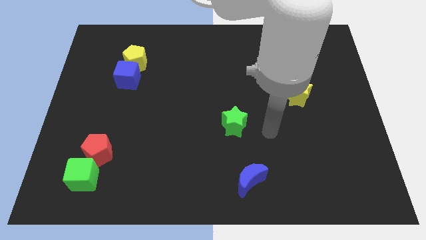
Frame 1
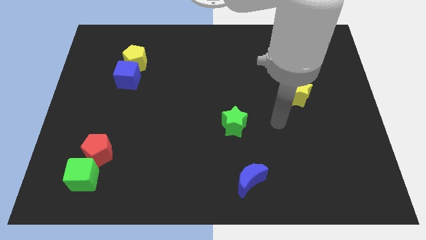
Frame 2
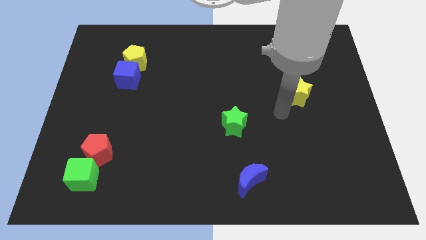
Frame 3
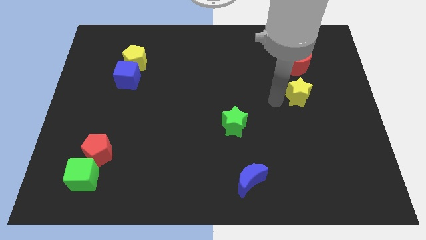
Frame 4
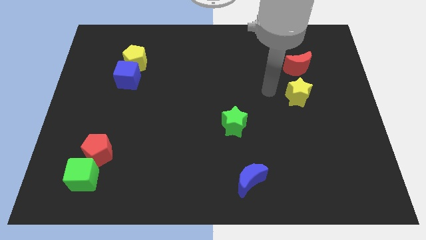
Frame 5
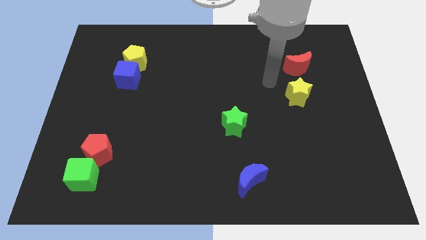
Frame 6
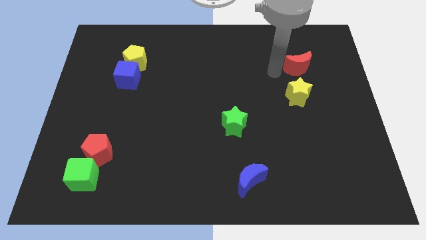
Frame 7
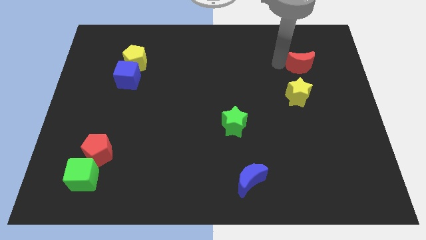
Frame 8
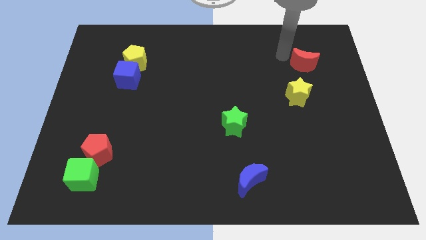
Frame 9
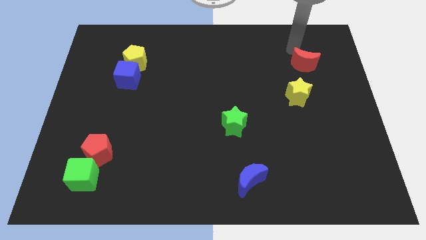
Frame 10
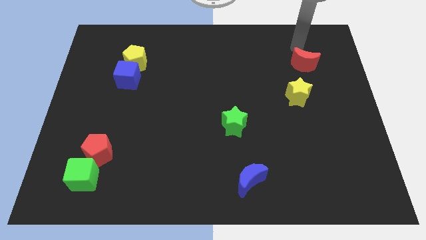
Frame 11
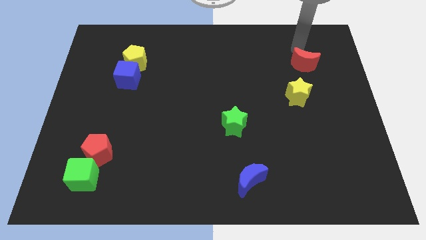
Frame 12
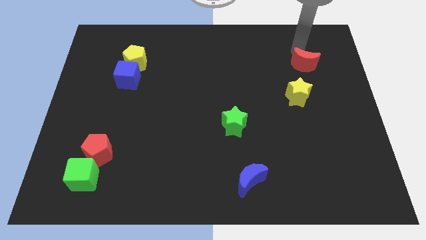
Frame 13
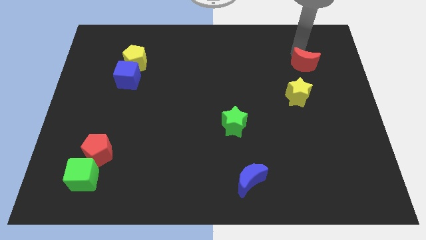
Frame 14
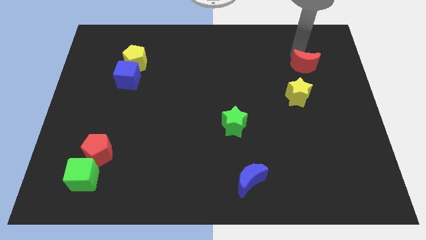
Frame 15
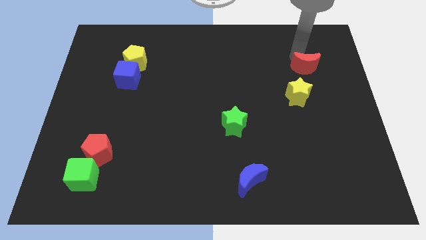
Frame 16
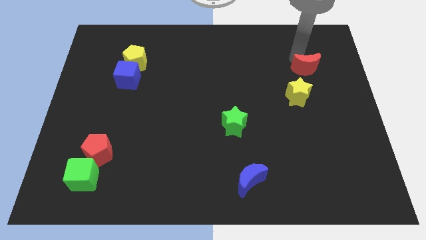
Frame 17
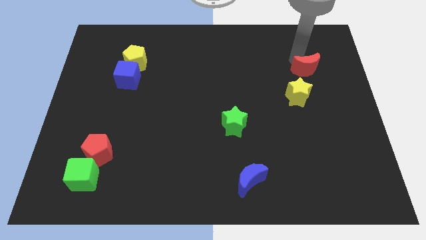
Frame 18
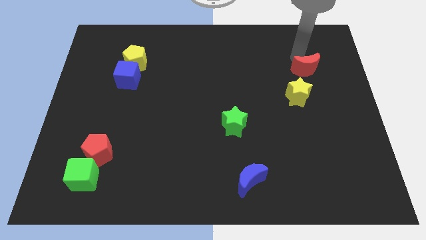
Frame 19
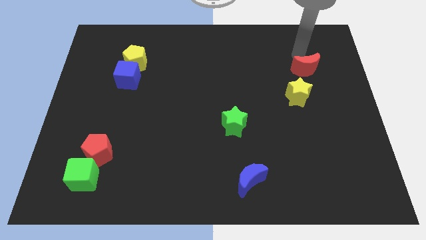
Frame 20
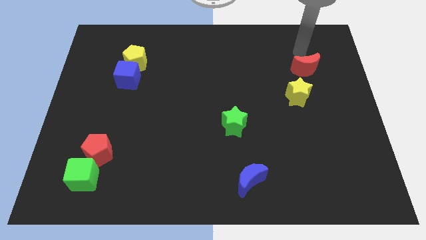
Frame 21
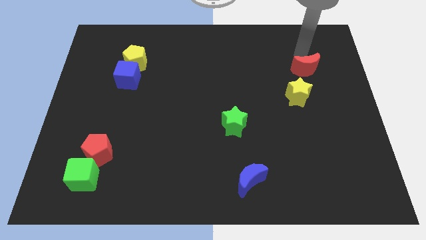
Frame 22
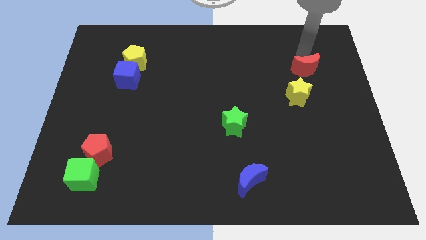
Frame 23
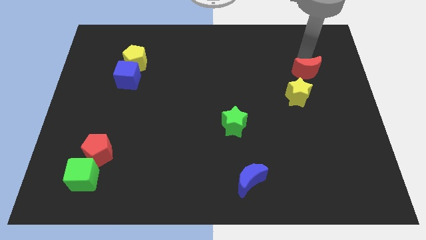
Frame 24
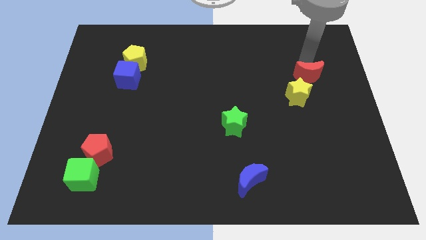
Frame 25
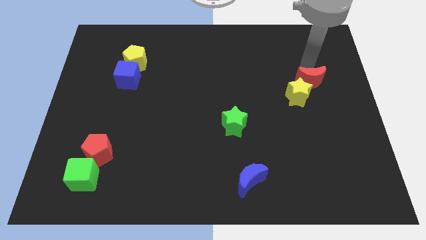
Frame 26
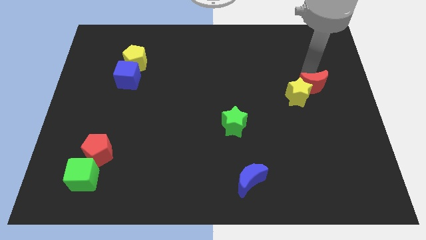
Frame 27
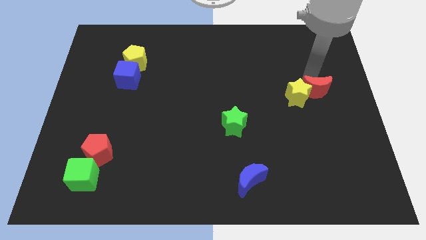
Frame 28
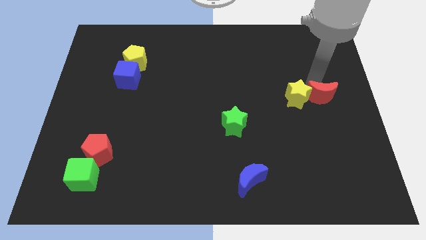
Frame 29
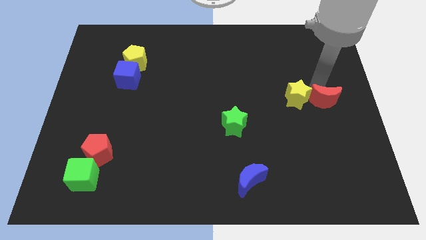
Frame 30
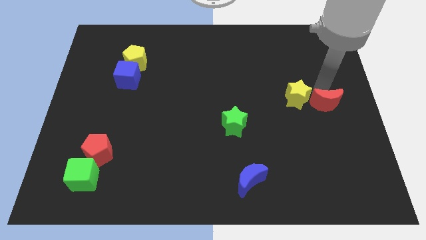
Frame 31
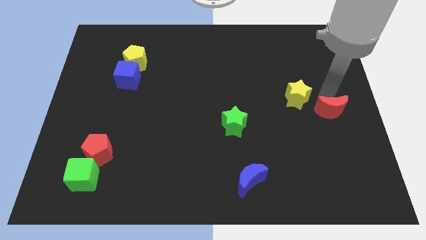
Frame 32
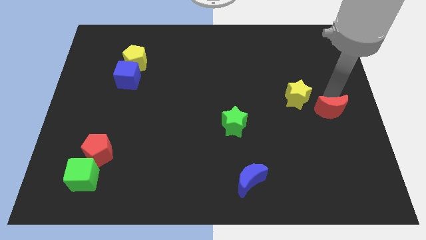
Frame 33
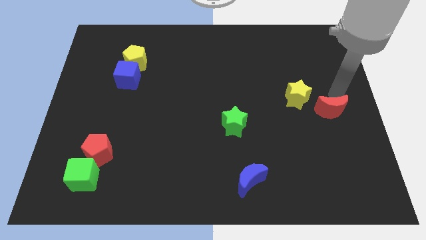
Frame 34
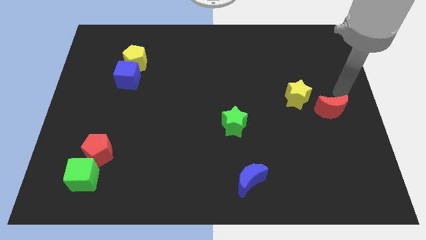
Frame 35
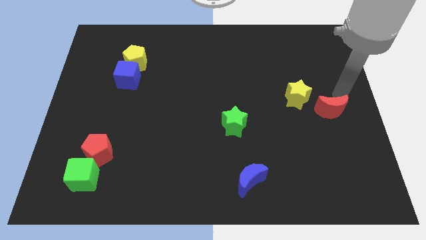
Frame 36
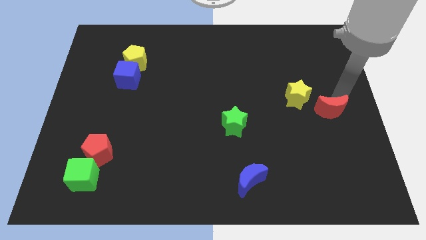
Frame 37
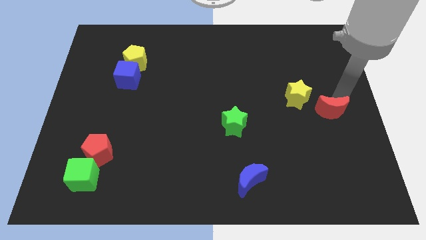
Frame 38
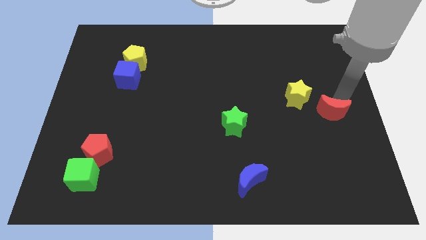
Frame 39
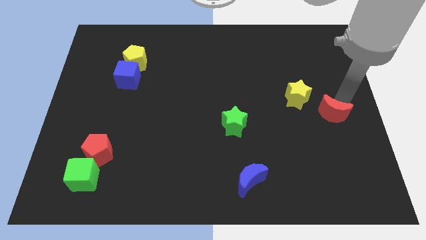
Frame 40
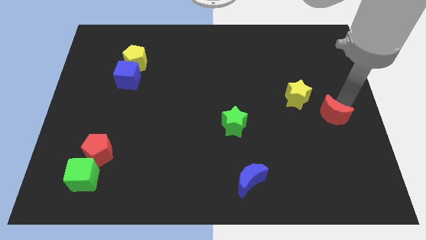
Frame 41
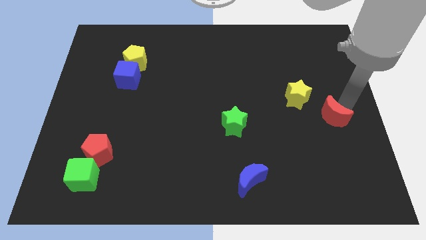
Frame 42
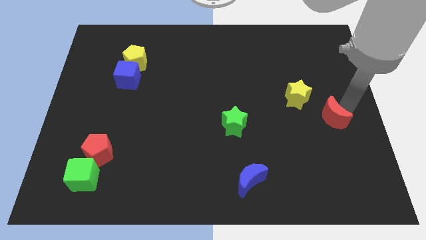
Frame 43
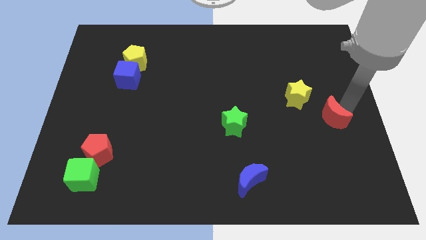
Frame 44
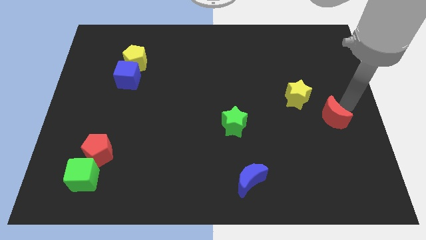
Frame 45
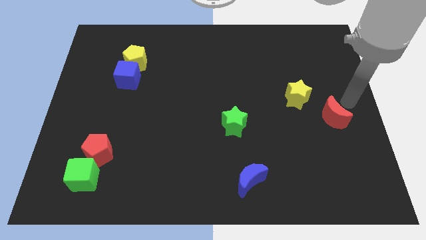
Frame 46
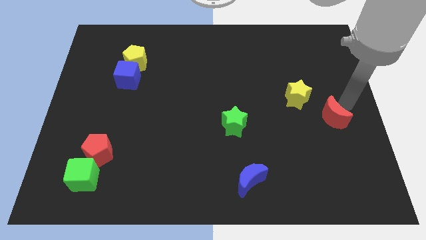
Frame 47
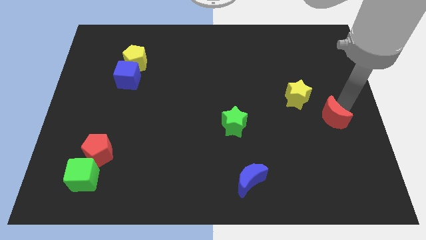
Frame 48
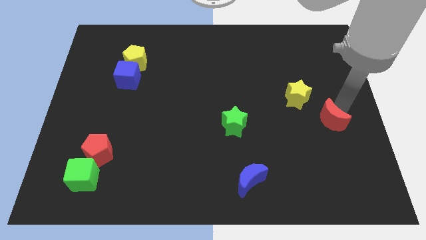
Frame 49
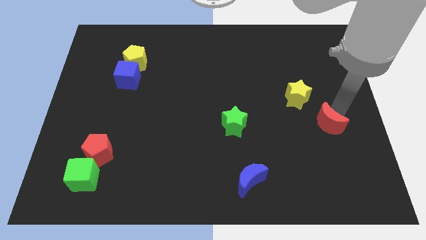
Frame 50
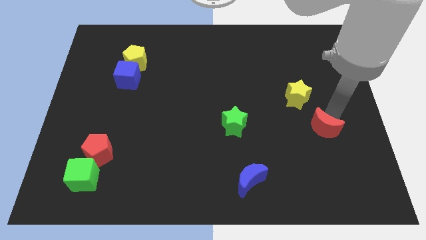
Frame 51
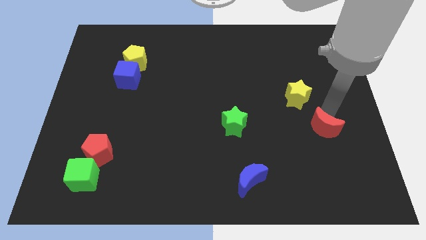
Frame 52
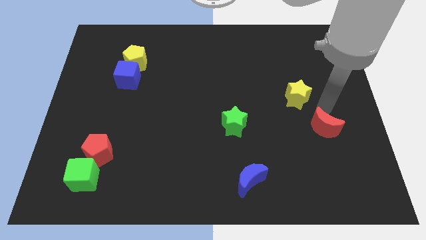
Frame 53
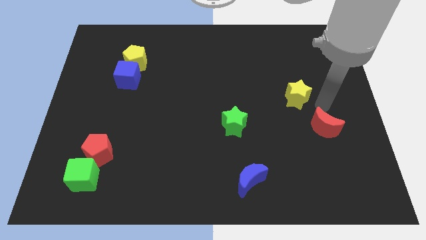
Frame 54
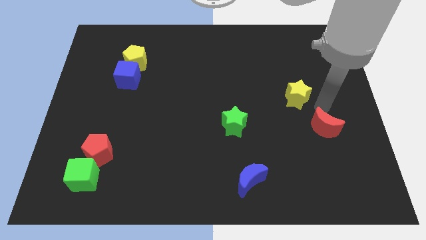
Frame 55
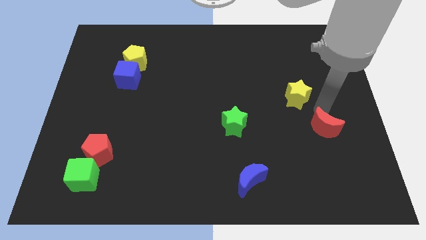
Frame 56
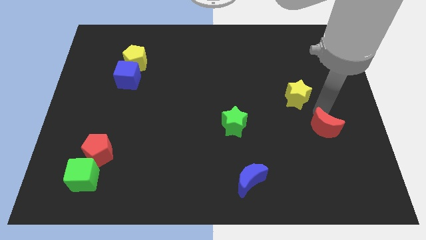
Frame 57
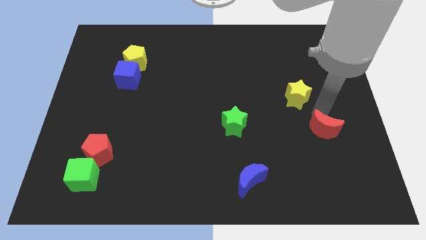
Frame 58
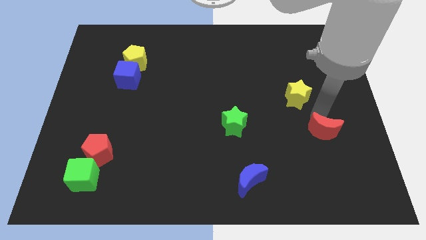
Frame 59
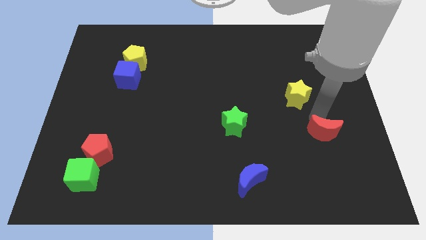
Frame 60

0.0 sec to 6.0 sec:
move the red moon downwards

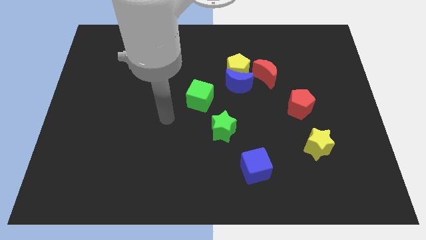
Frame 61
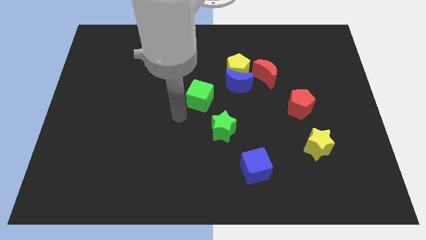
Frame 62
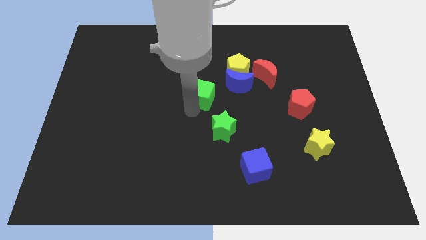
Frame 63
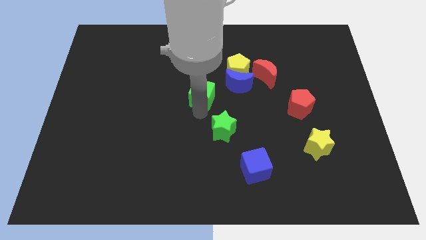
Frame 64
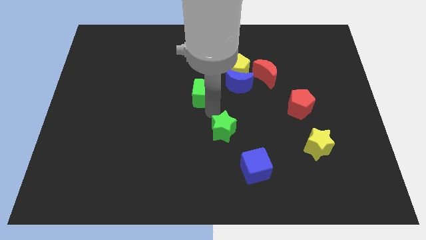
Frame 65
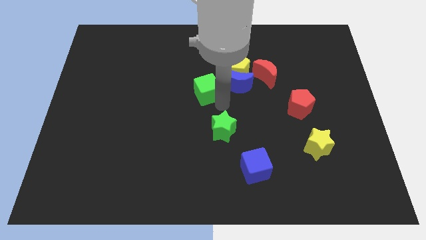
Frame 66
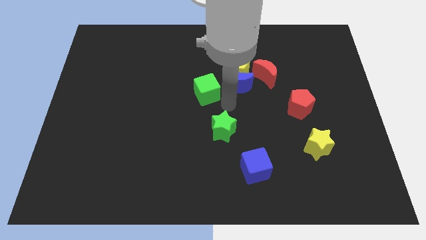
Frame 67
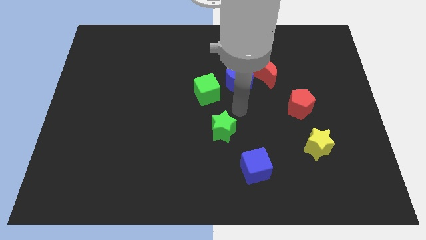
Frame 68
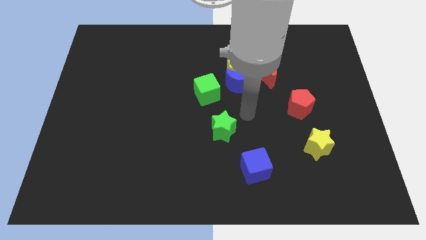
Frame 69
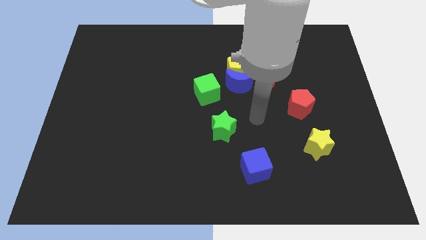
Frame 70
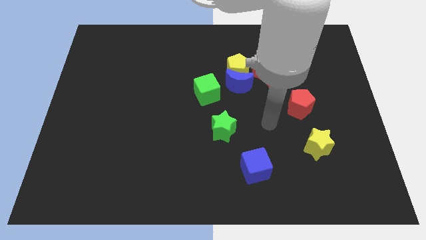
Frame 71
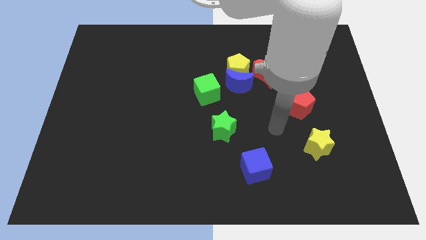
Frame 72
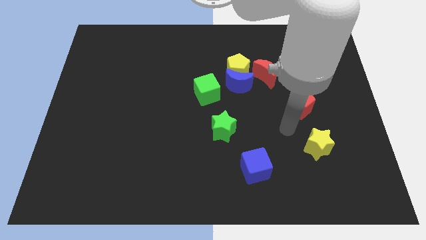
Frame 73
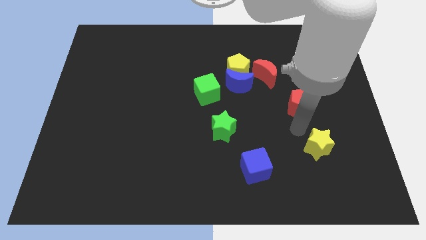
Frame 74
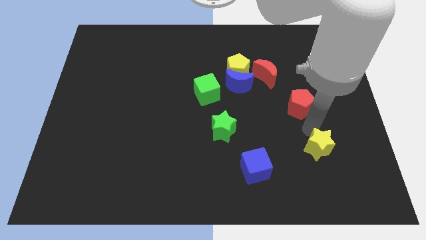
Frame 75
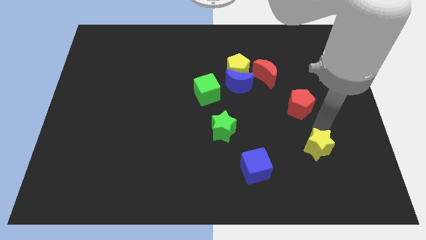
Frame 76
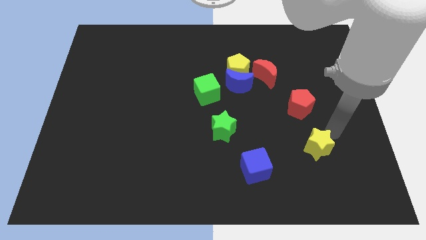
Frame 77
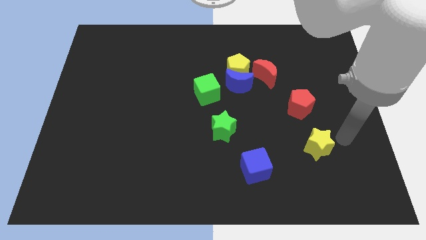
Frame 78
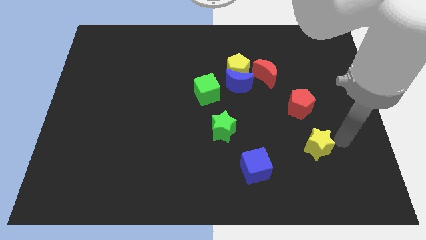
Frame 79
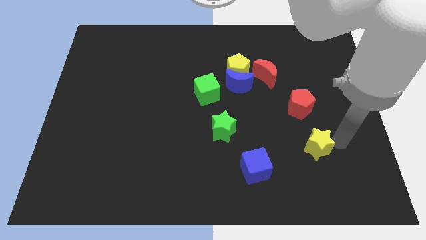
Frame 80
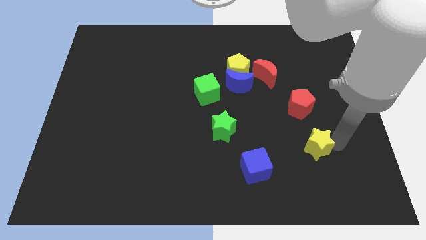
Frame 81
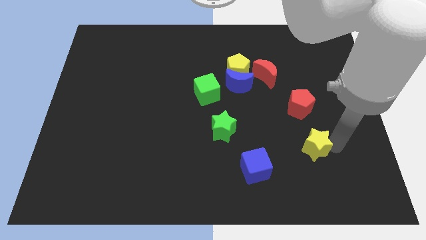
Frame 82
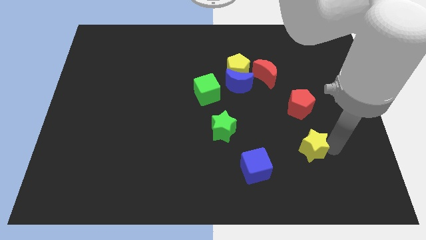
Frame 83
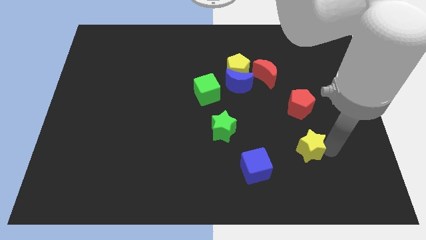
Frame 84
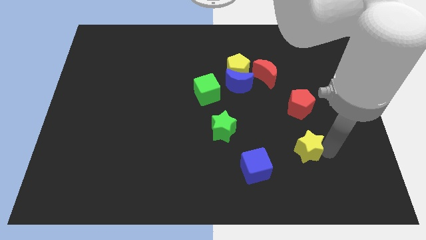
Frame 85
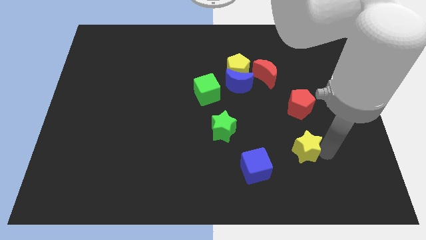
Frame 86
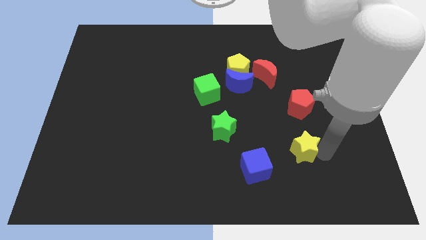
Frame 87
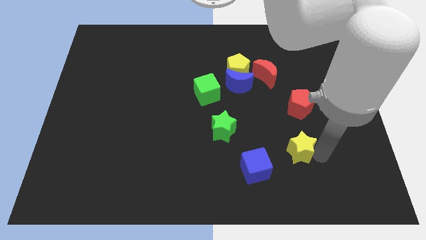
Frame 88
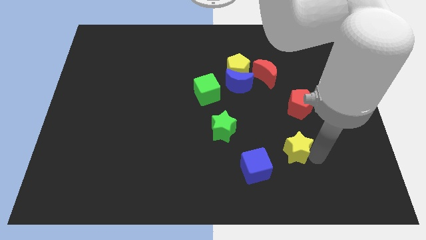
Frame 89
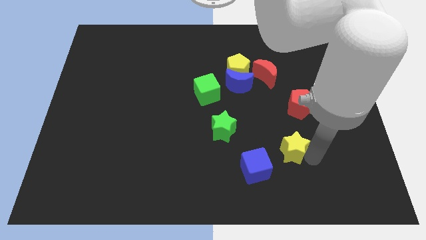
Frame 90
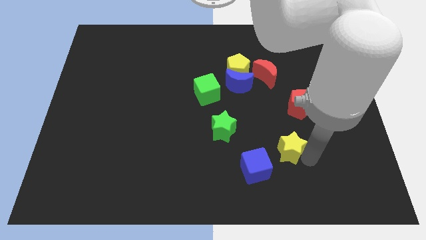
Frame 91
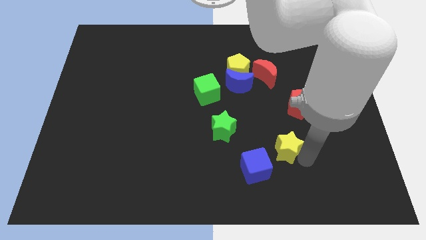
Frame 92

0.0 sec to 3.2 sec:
push the yellow star to the left slightly
